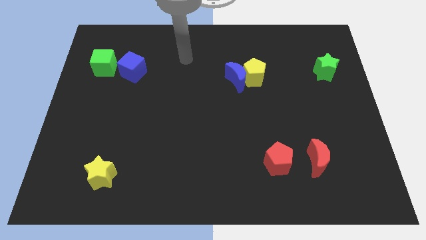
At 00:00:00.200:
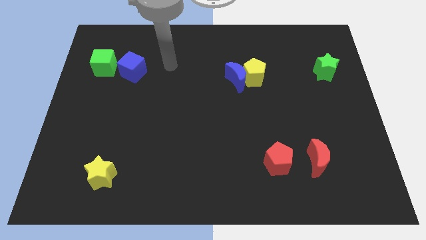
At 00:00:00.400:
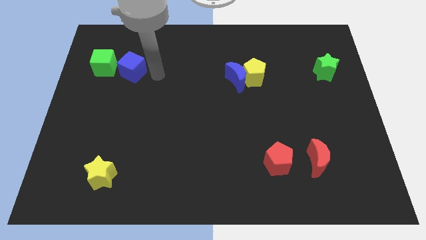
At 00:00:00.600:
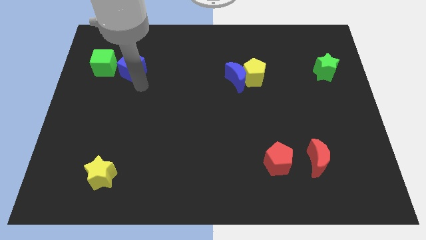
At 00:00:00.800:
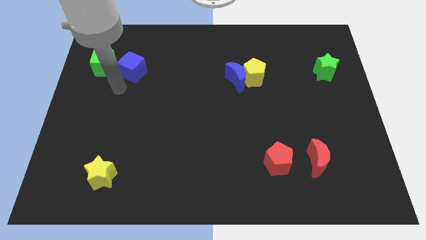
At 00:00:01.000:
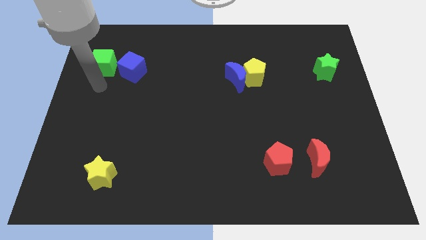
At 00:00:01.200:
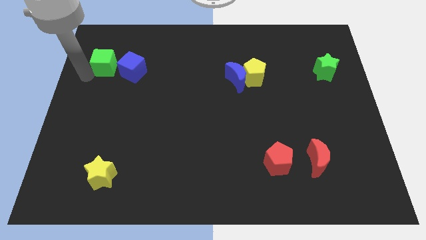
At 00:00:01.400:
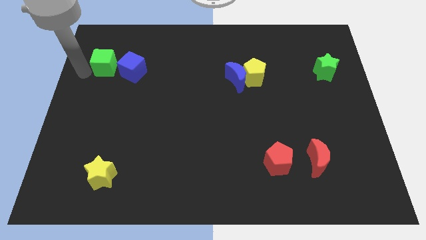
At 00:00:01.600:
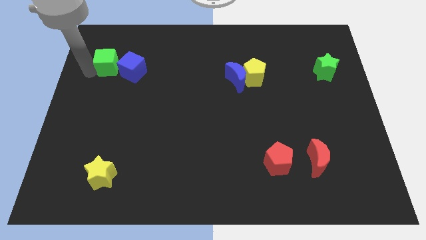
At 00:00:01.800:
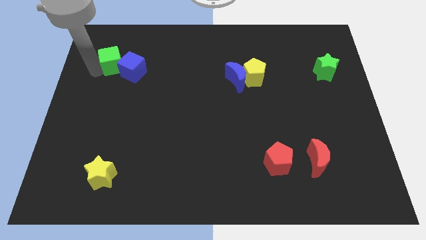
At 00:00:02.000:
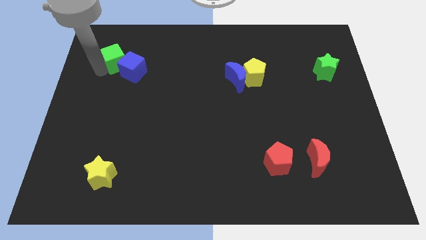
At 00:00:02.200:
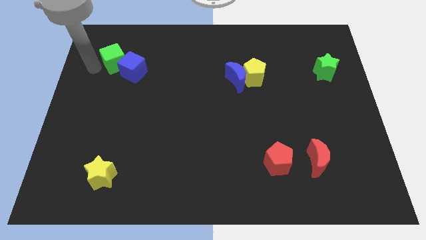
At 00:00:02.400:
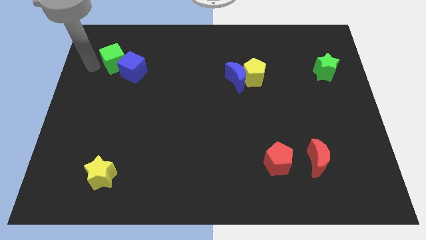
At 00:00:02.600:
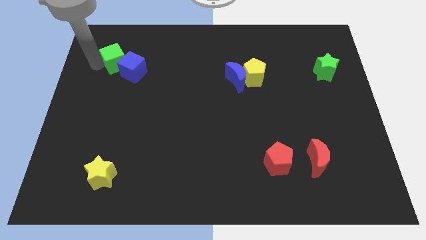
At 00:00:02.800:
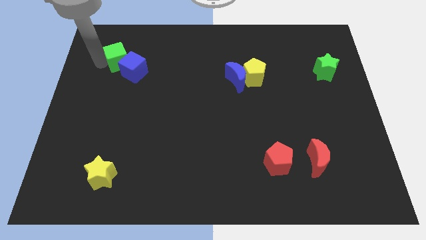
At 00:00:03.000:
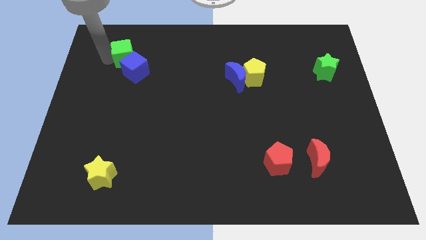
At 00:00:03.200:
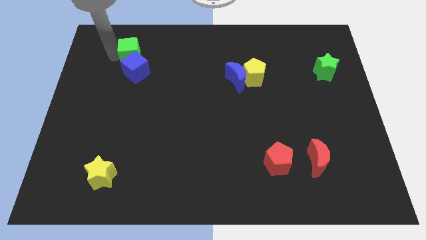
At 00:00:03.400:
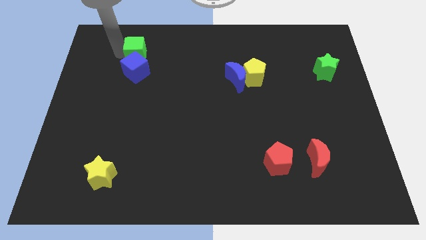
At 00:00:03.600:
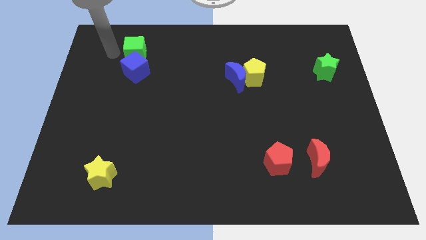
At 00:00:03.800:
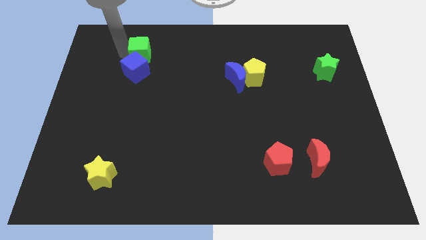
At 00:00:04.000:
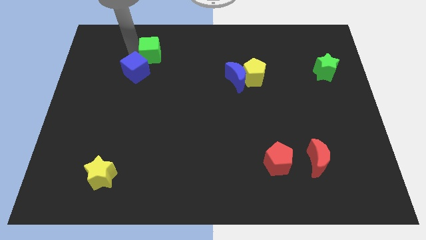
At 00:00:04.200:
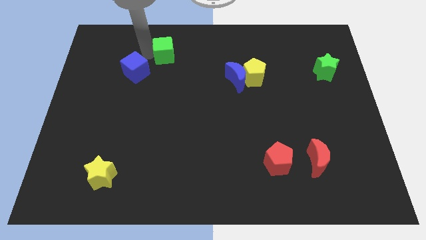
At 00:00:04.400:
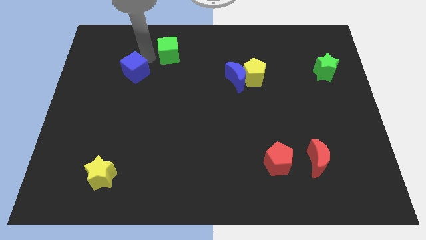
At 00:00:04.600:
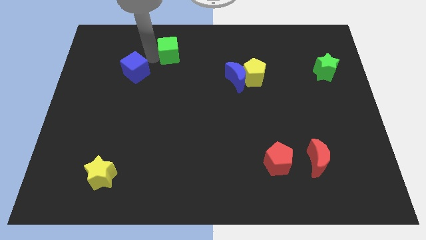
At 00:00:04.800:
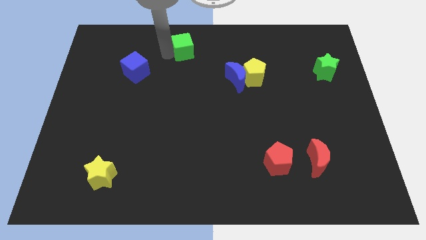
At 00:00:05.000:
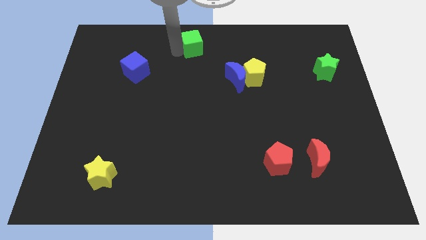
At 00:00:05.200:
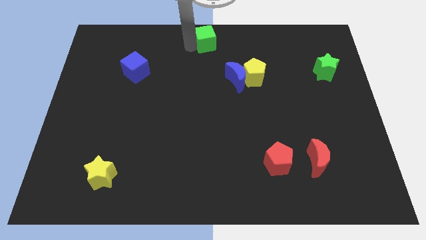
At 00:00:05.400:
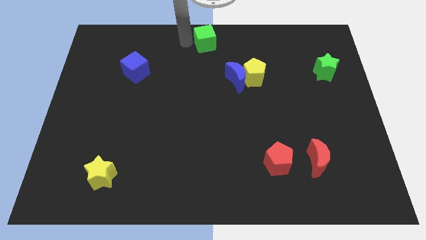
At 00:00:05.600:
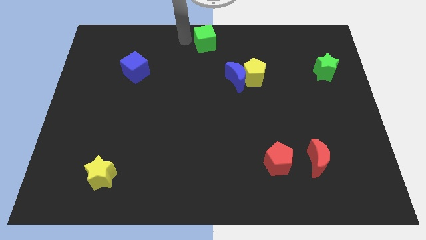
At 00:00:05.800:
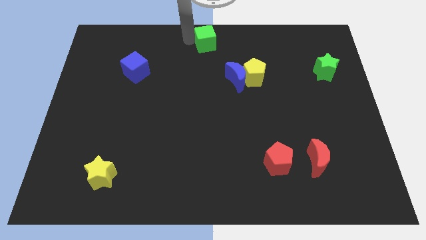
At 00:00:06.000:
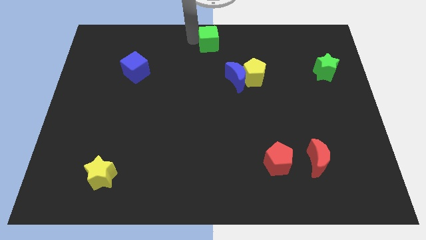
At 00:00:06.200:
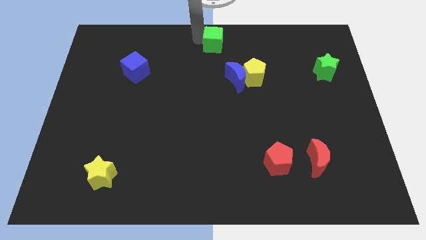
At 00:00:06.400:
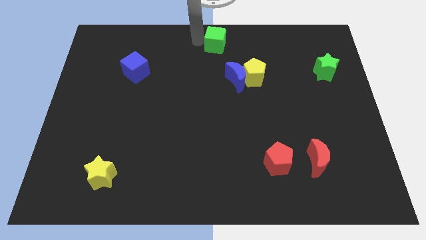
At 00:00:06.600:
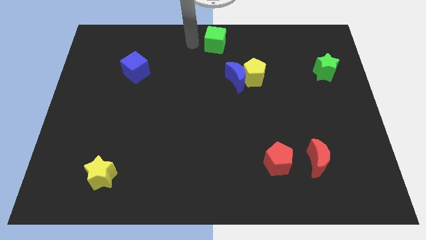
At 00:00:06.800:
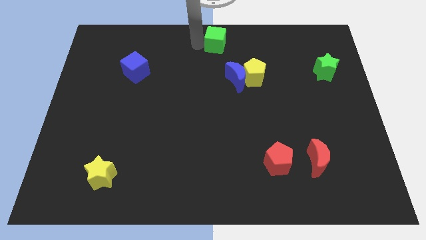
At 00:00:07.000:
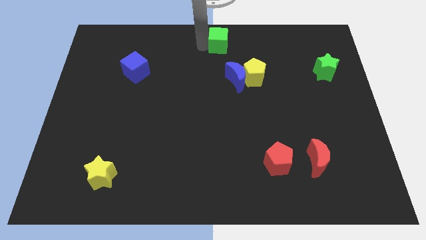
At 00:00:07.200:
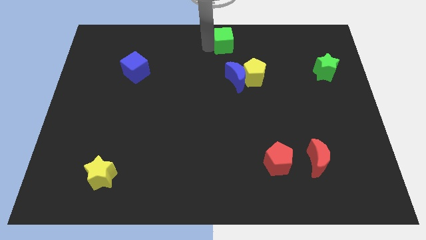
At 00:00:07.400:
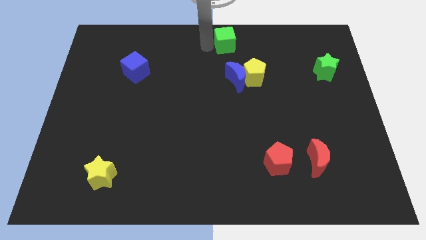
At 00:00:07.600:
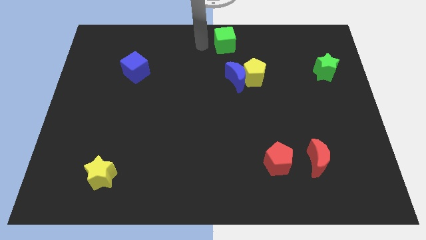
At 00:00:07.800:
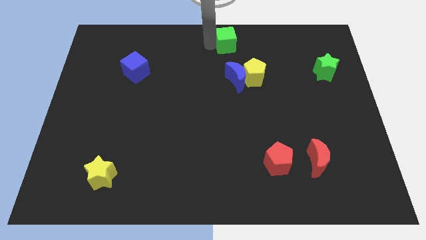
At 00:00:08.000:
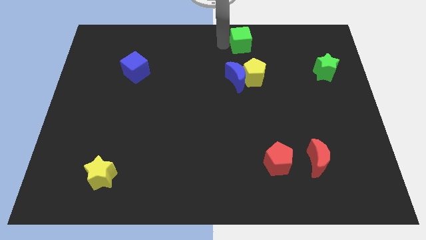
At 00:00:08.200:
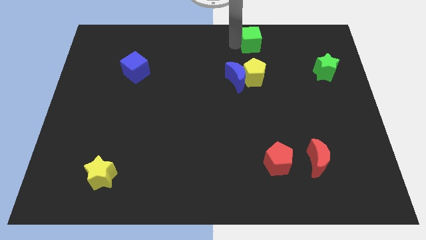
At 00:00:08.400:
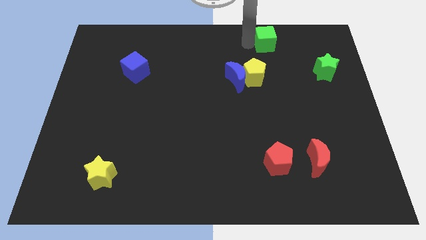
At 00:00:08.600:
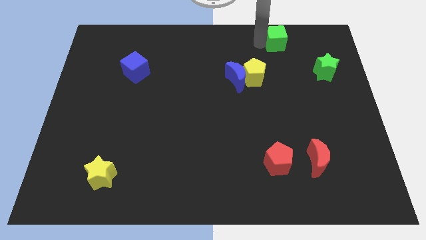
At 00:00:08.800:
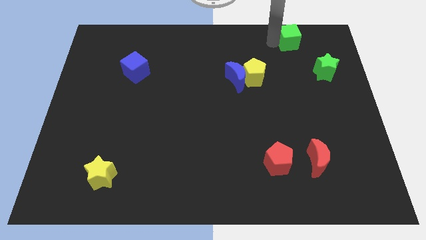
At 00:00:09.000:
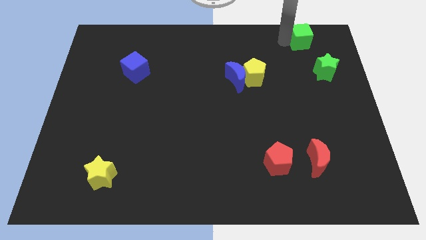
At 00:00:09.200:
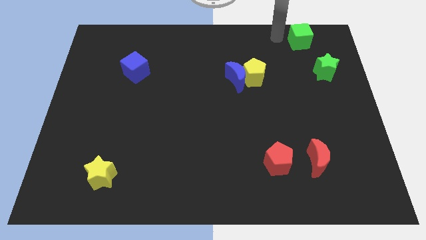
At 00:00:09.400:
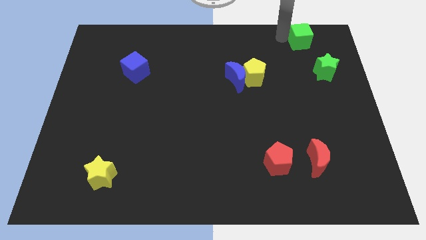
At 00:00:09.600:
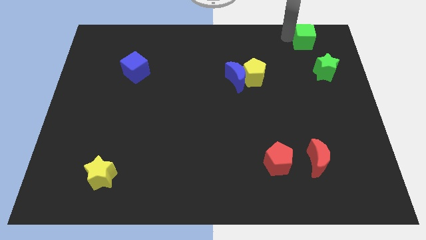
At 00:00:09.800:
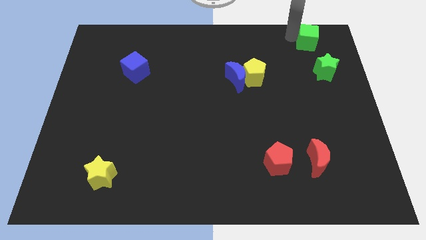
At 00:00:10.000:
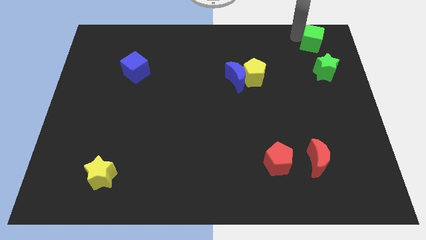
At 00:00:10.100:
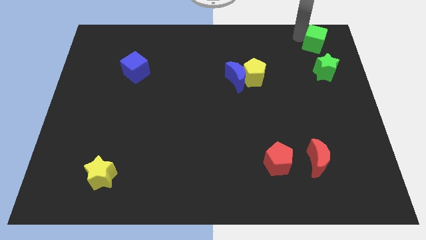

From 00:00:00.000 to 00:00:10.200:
push the green cube to the top right corner

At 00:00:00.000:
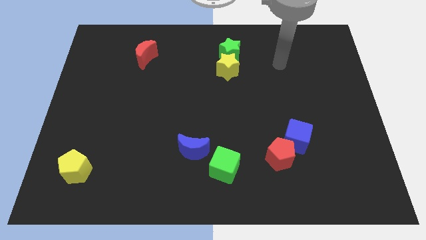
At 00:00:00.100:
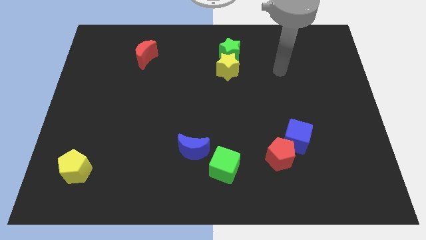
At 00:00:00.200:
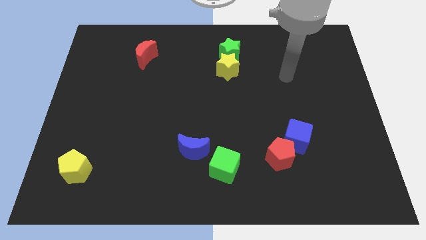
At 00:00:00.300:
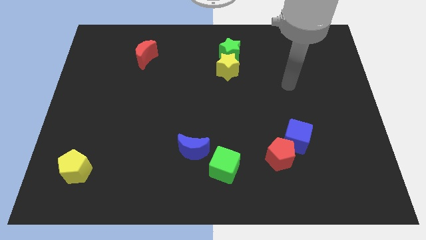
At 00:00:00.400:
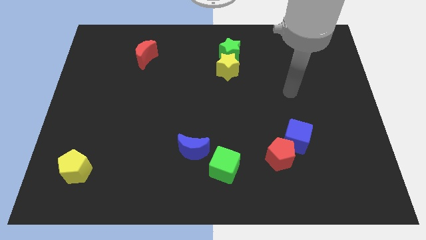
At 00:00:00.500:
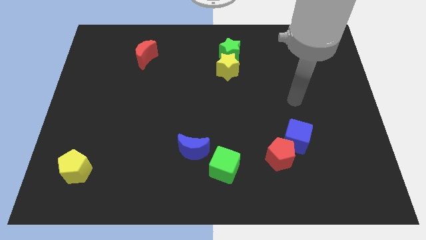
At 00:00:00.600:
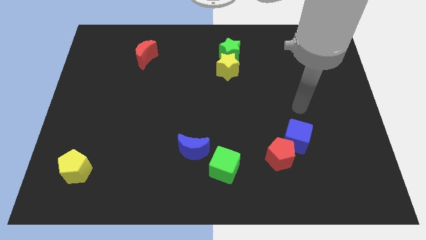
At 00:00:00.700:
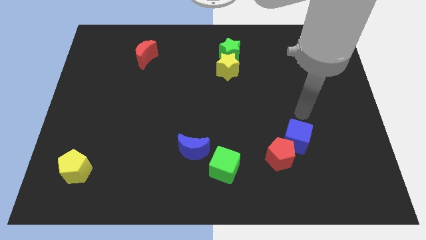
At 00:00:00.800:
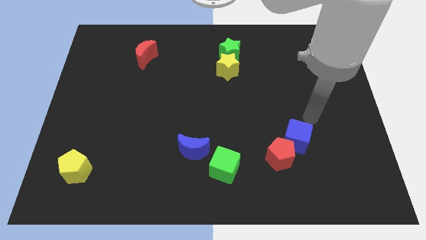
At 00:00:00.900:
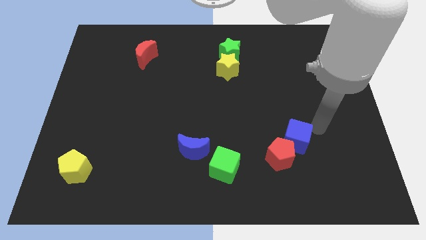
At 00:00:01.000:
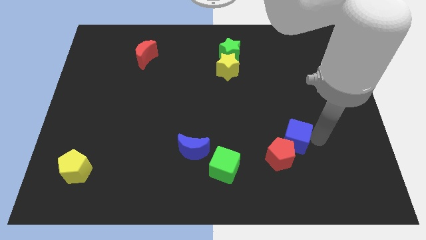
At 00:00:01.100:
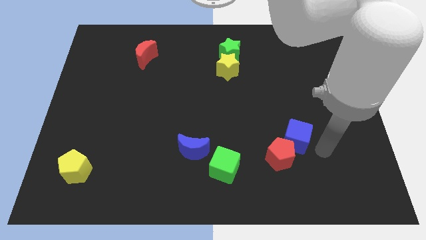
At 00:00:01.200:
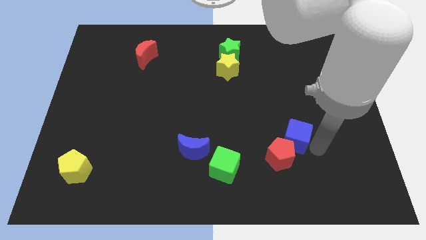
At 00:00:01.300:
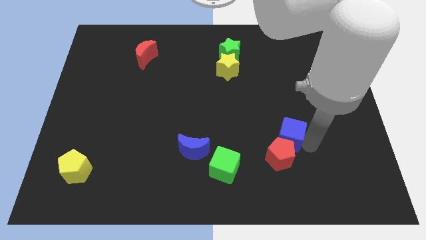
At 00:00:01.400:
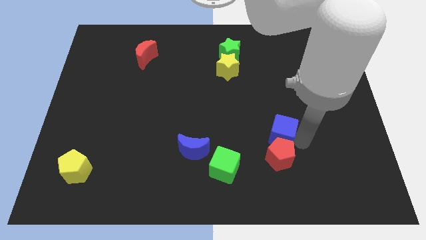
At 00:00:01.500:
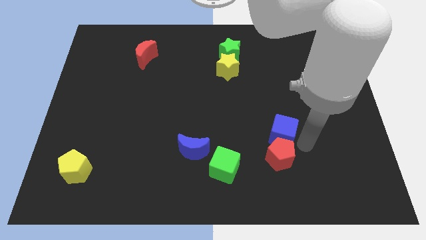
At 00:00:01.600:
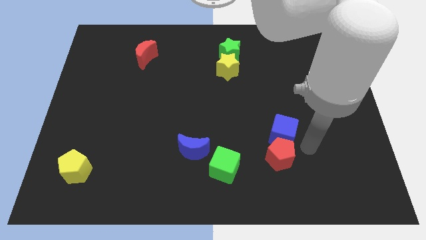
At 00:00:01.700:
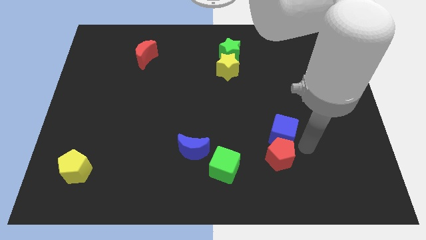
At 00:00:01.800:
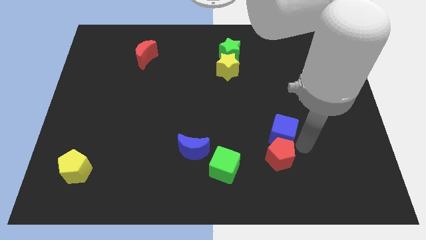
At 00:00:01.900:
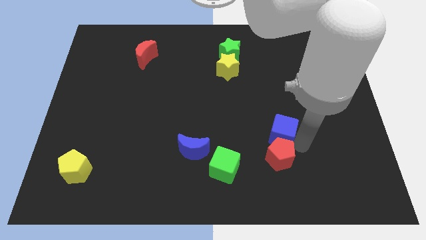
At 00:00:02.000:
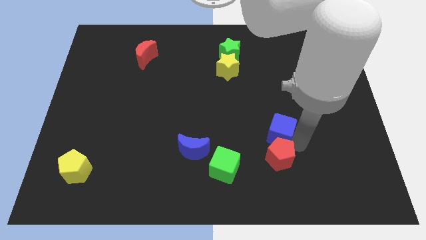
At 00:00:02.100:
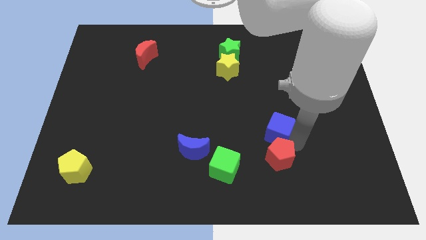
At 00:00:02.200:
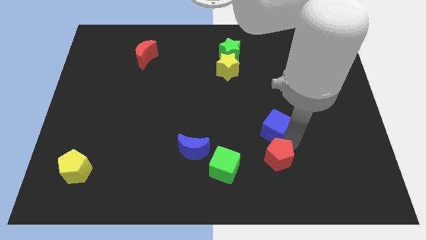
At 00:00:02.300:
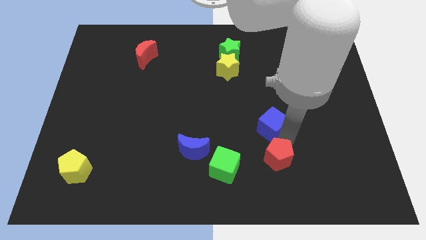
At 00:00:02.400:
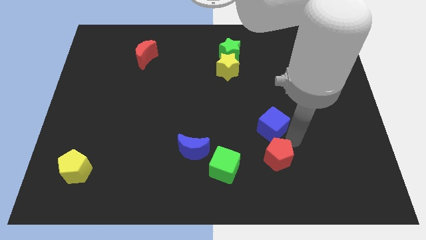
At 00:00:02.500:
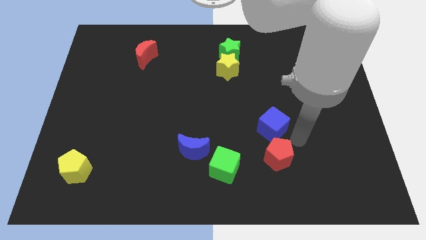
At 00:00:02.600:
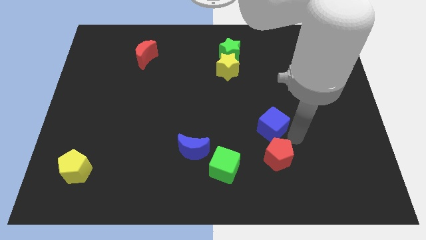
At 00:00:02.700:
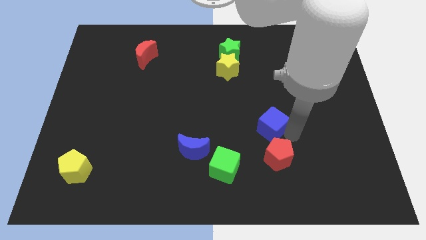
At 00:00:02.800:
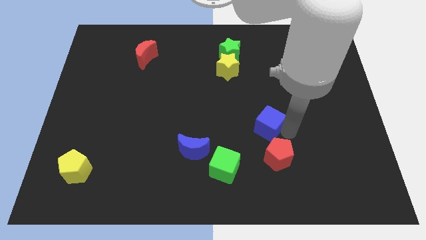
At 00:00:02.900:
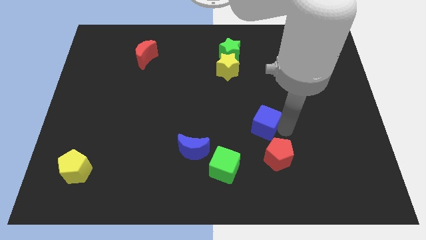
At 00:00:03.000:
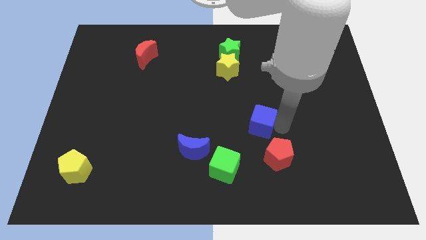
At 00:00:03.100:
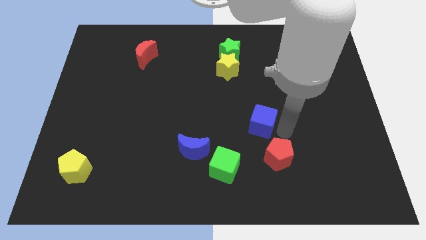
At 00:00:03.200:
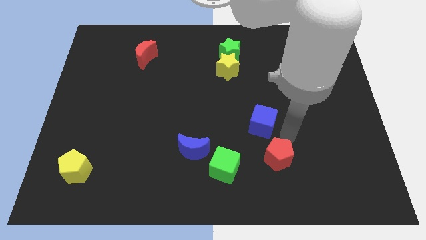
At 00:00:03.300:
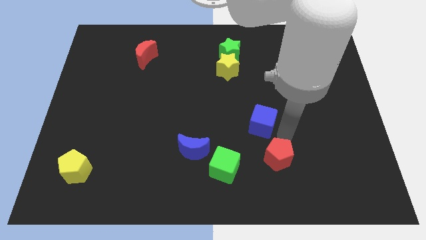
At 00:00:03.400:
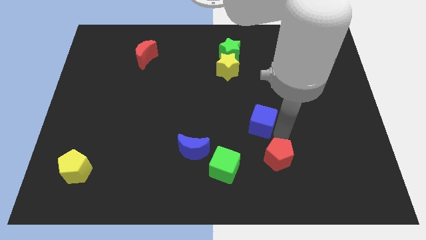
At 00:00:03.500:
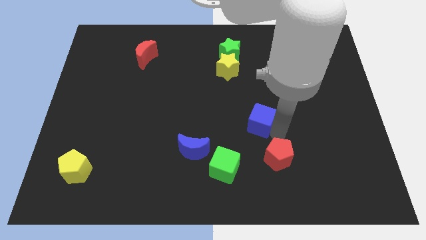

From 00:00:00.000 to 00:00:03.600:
move the blue cube to the center
